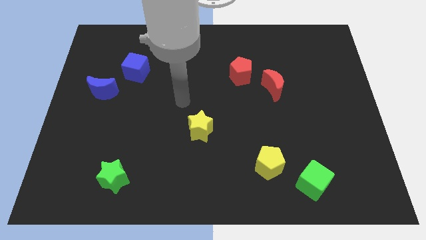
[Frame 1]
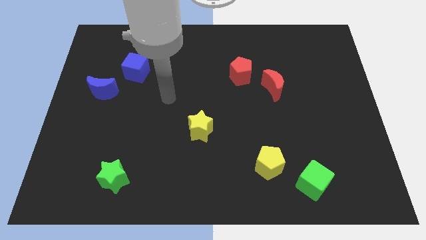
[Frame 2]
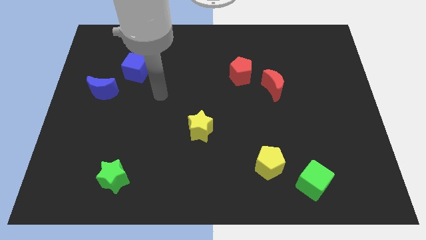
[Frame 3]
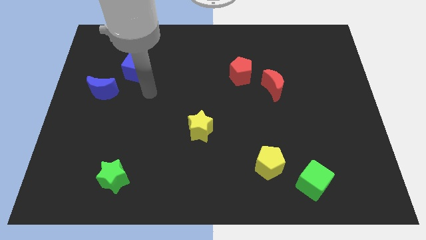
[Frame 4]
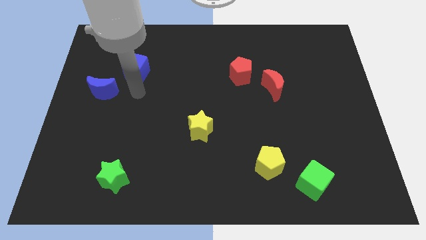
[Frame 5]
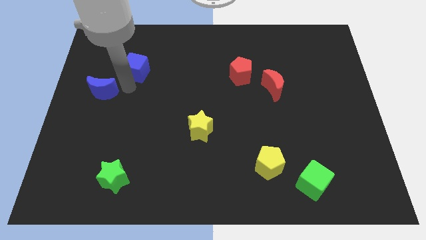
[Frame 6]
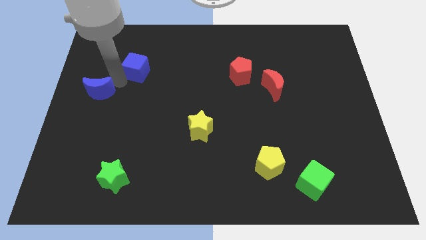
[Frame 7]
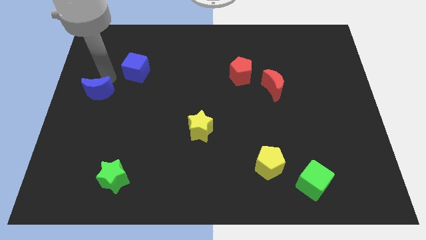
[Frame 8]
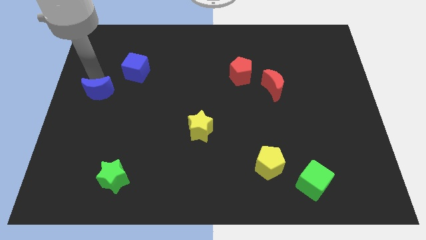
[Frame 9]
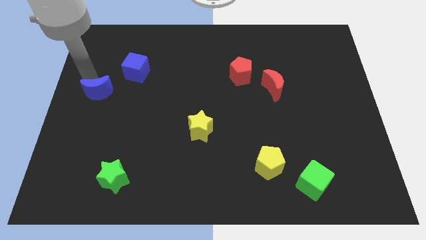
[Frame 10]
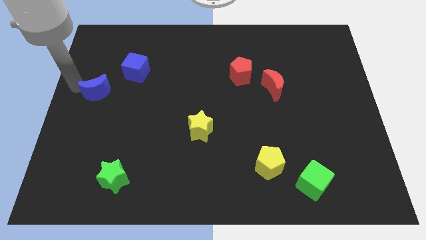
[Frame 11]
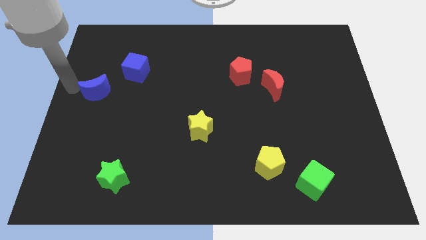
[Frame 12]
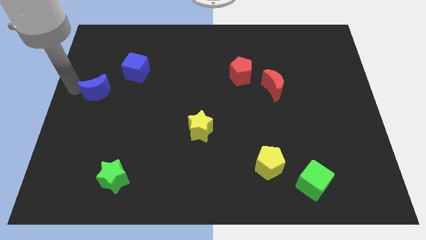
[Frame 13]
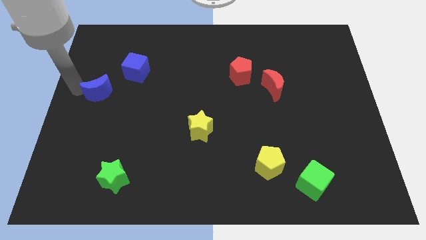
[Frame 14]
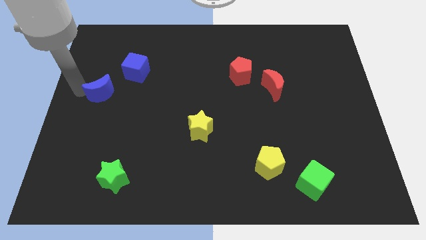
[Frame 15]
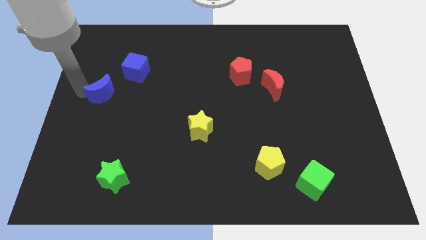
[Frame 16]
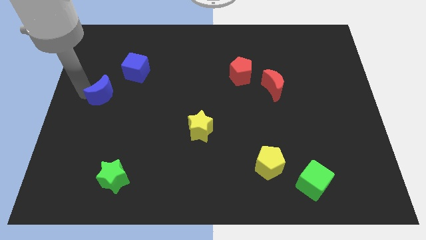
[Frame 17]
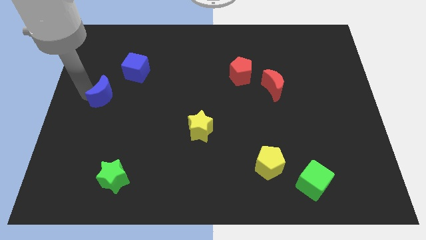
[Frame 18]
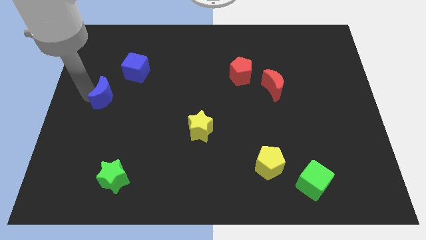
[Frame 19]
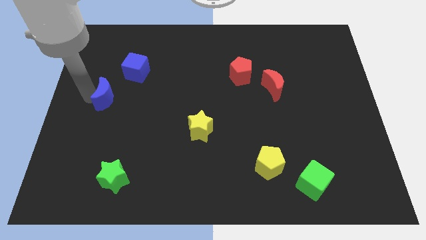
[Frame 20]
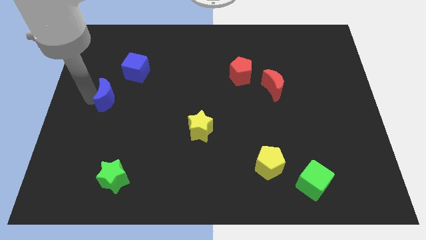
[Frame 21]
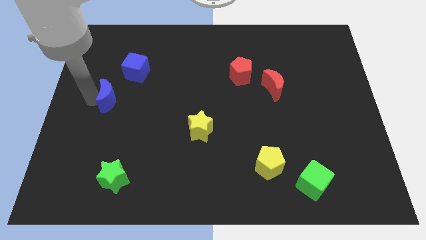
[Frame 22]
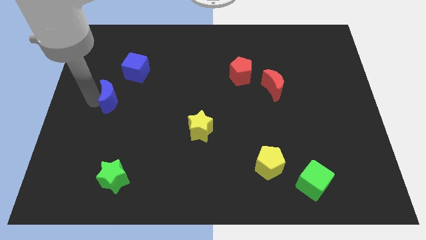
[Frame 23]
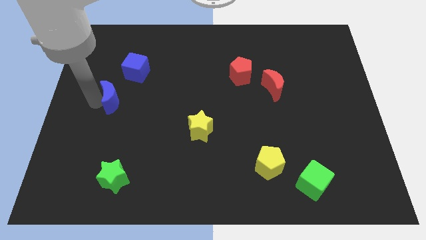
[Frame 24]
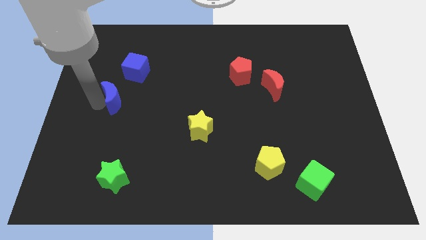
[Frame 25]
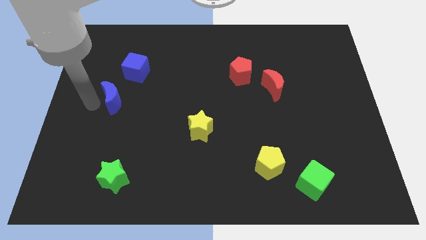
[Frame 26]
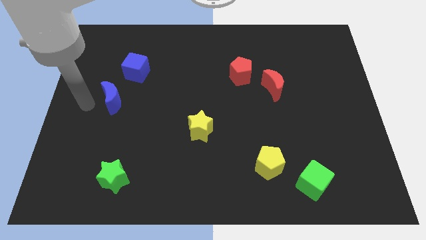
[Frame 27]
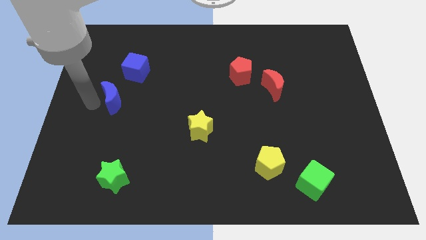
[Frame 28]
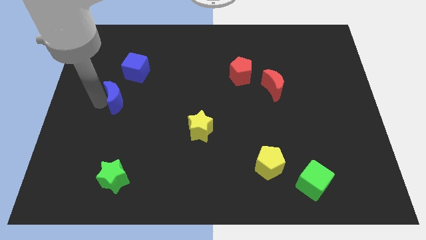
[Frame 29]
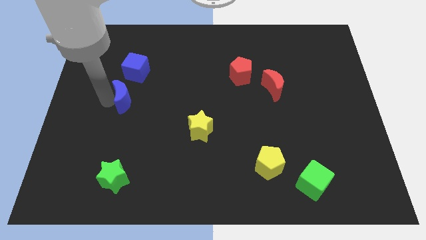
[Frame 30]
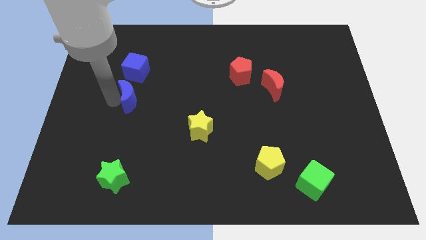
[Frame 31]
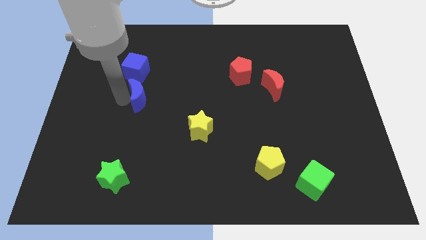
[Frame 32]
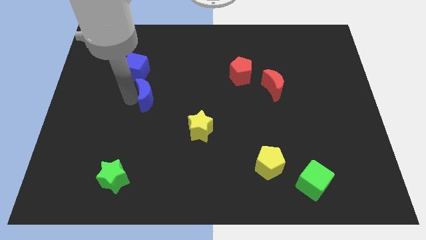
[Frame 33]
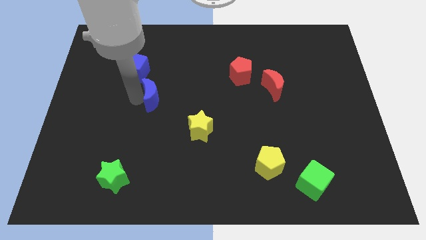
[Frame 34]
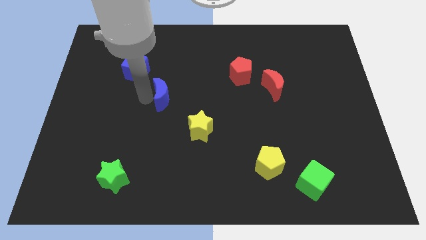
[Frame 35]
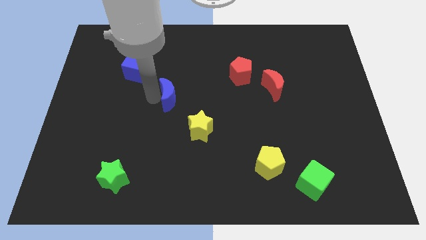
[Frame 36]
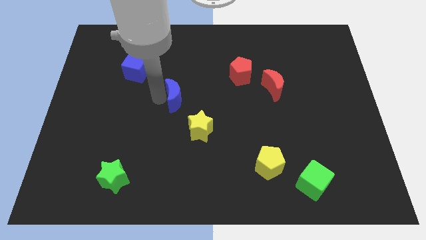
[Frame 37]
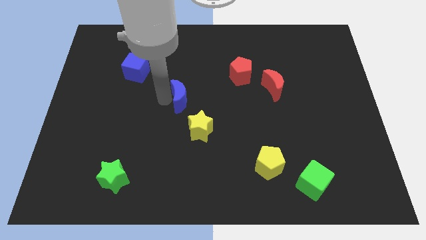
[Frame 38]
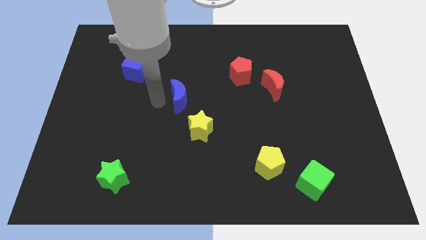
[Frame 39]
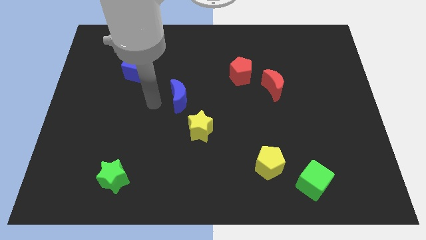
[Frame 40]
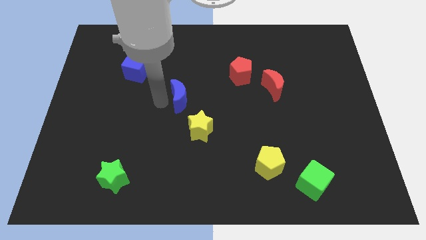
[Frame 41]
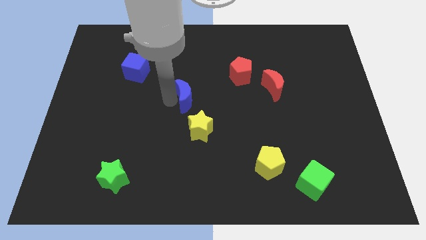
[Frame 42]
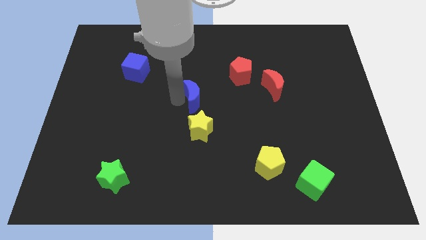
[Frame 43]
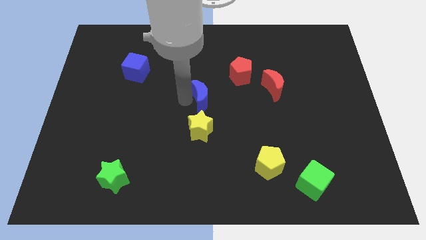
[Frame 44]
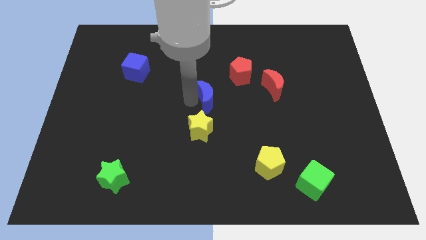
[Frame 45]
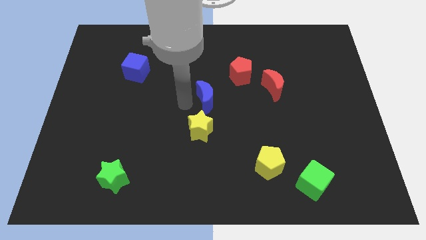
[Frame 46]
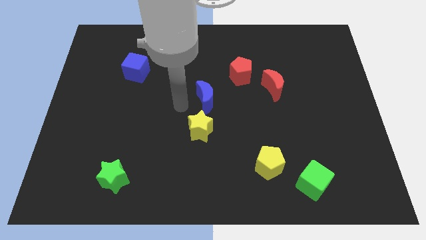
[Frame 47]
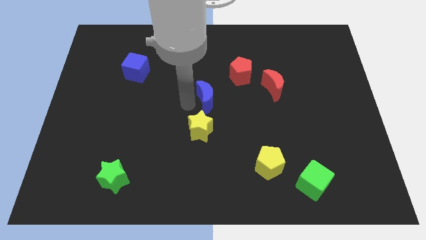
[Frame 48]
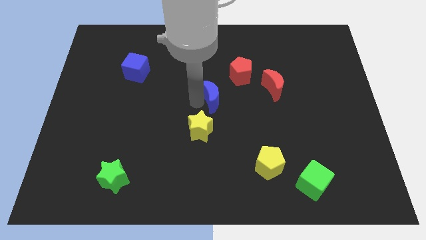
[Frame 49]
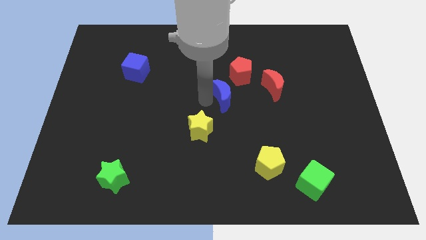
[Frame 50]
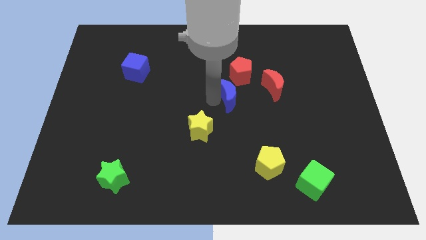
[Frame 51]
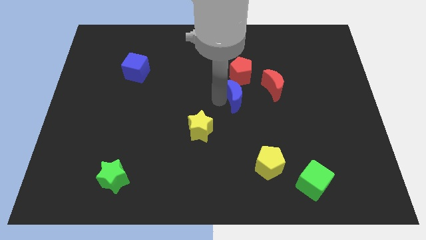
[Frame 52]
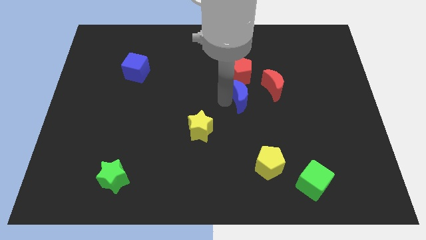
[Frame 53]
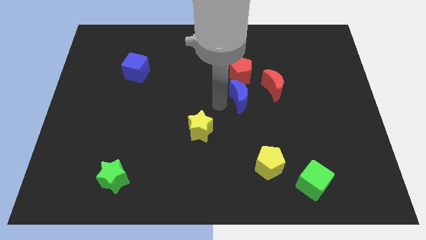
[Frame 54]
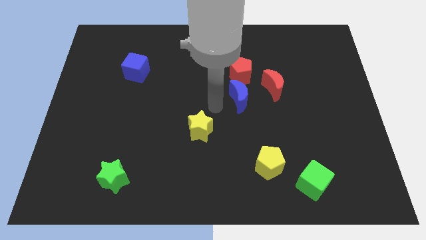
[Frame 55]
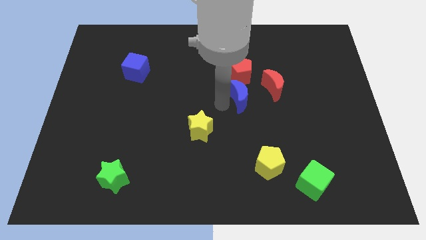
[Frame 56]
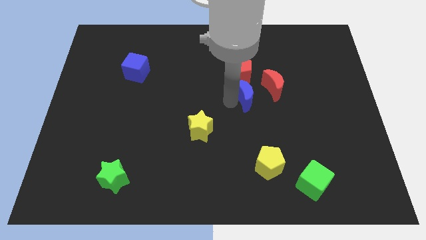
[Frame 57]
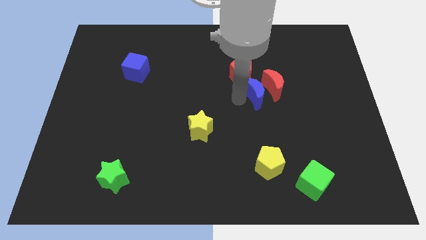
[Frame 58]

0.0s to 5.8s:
put the blue moon next to the red moon
